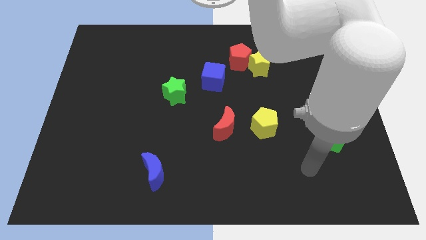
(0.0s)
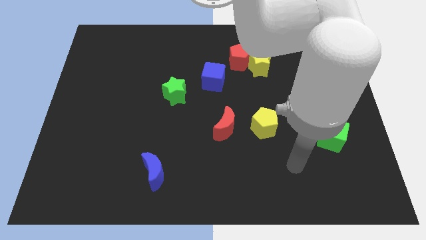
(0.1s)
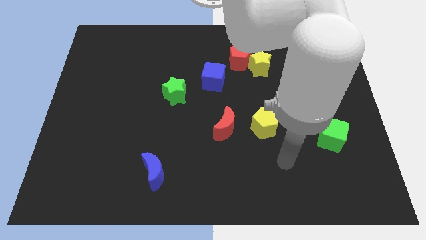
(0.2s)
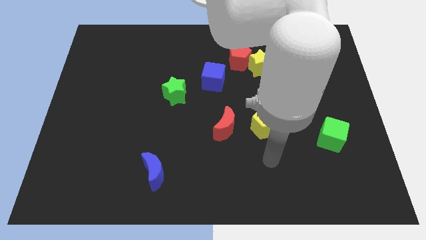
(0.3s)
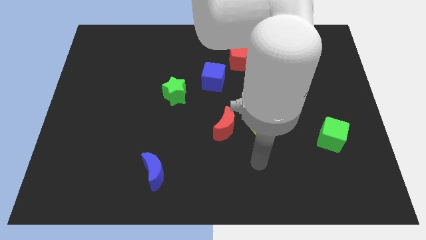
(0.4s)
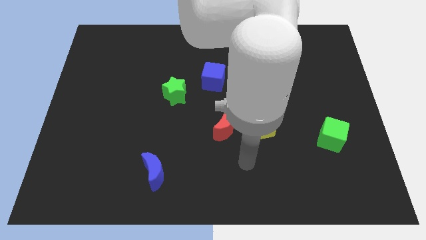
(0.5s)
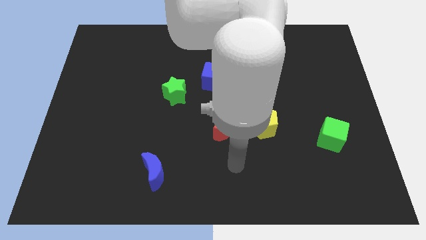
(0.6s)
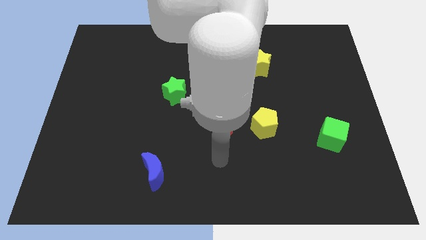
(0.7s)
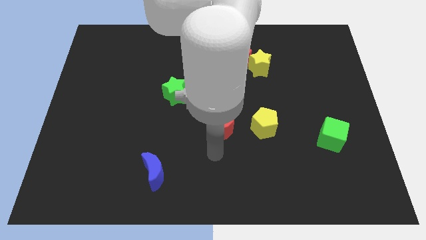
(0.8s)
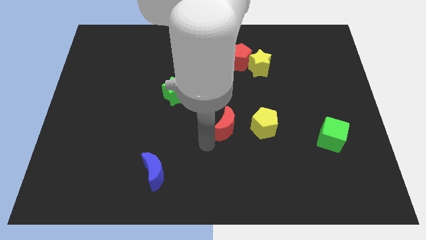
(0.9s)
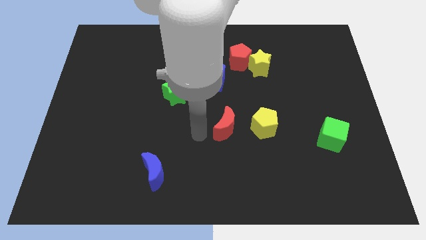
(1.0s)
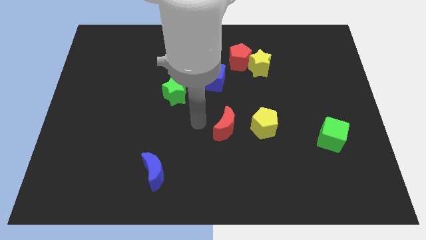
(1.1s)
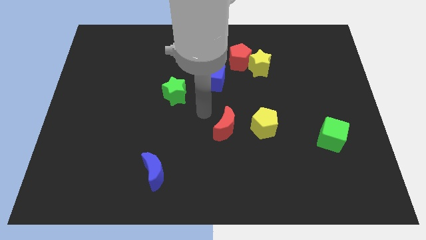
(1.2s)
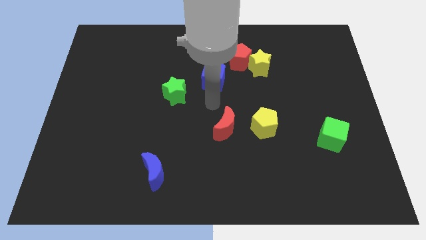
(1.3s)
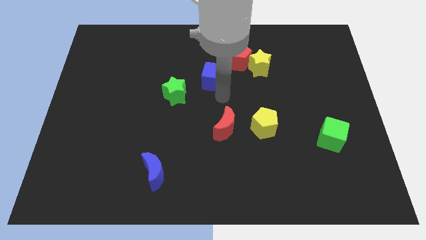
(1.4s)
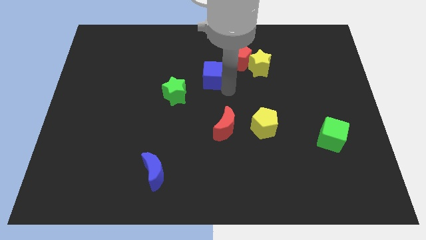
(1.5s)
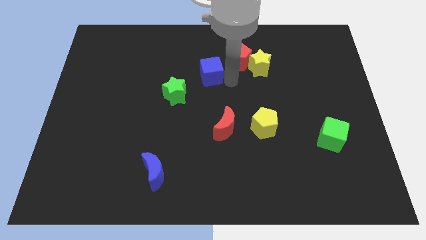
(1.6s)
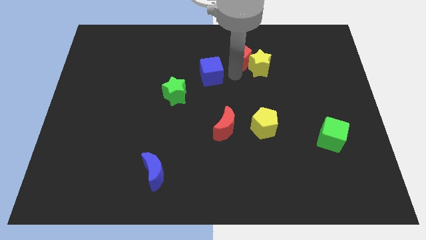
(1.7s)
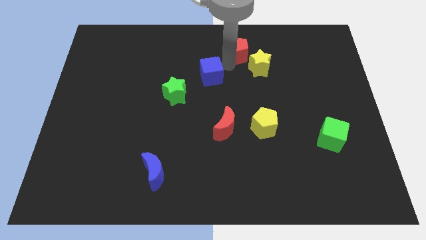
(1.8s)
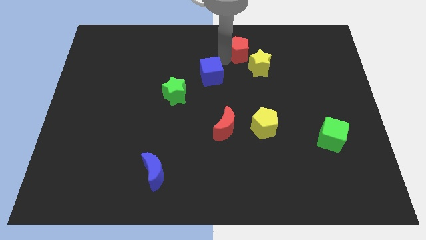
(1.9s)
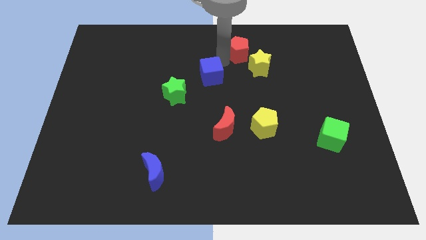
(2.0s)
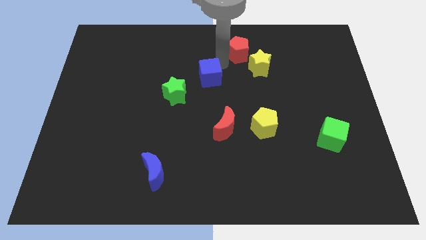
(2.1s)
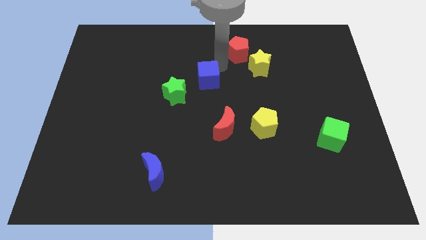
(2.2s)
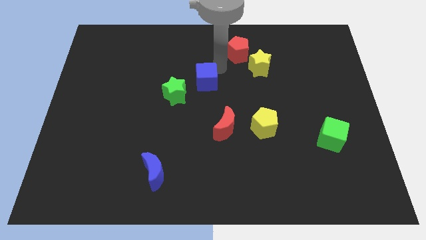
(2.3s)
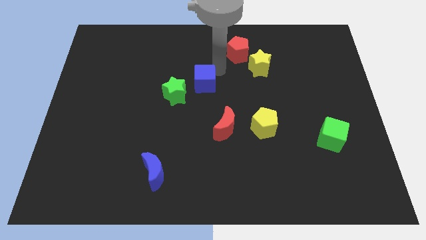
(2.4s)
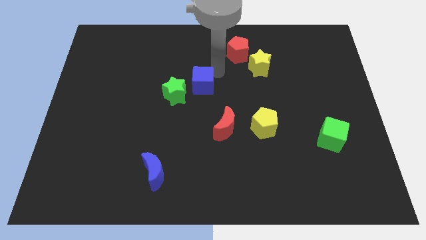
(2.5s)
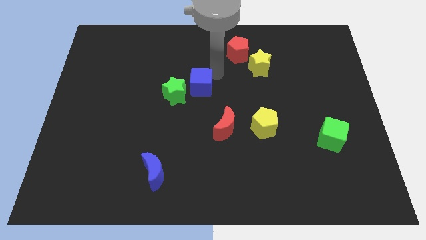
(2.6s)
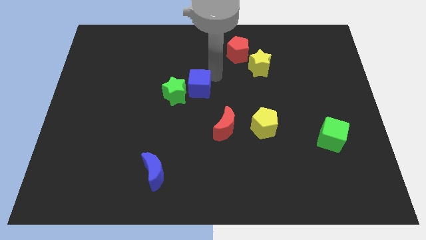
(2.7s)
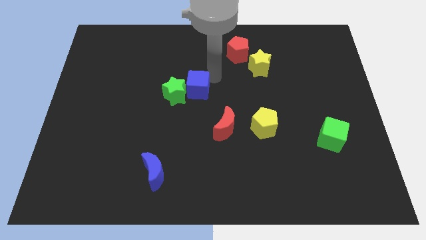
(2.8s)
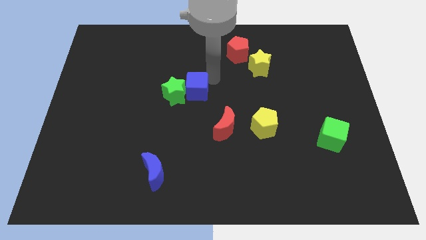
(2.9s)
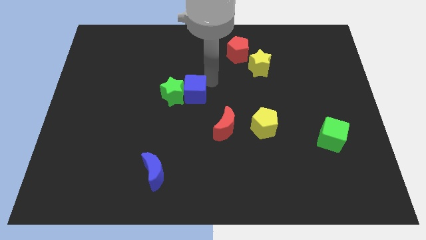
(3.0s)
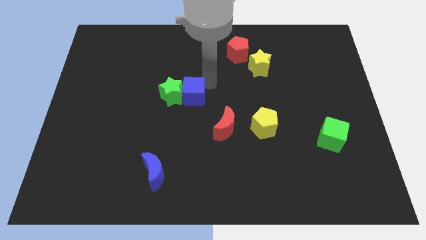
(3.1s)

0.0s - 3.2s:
move the blue cube down and to the left diagonally a bit

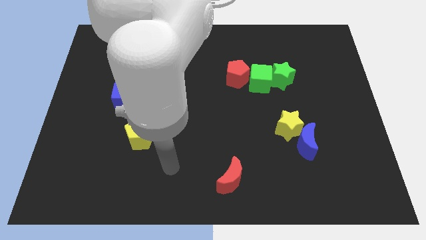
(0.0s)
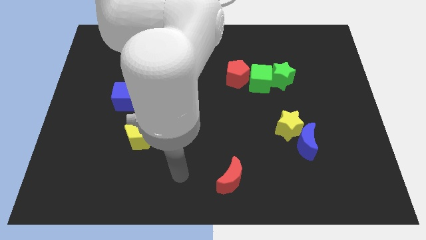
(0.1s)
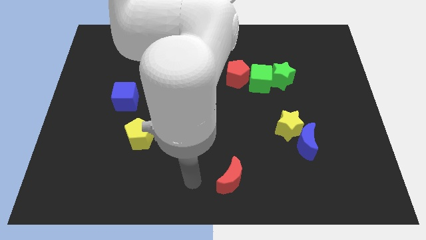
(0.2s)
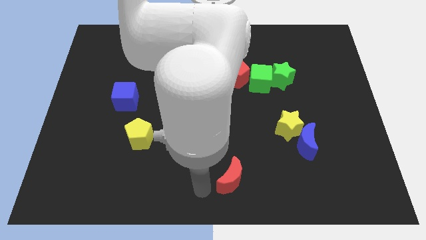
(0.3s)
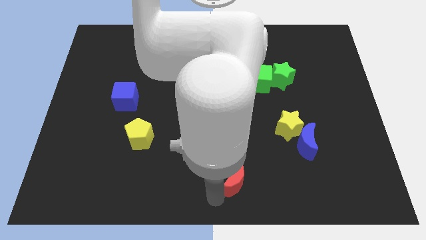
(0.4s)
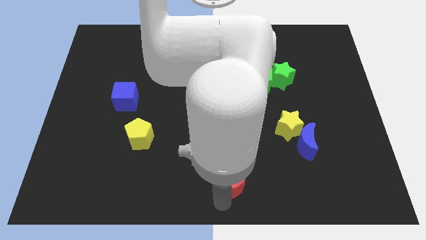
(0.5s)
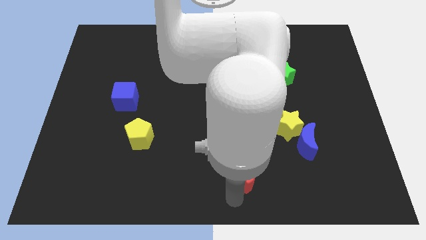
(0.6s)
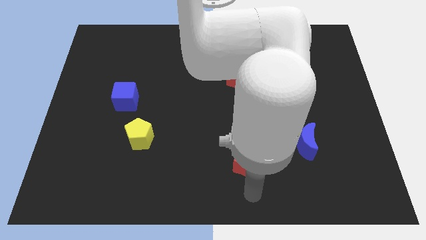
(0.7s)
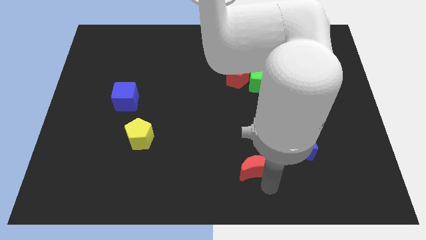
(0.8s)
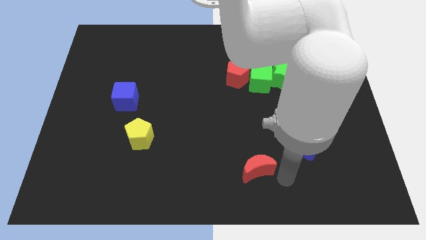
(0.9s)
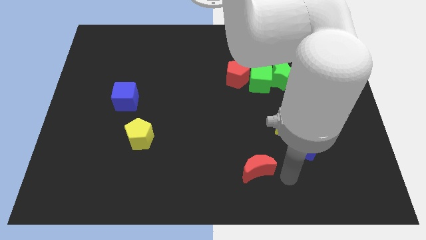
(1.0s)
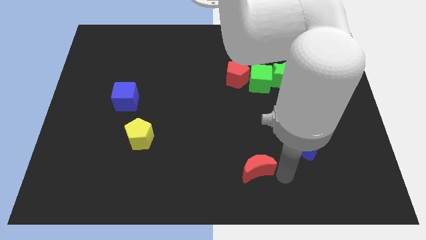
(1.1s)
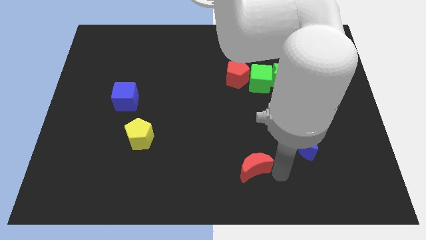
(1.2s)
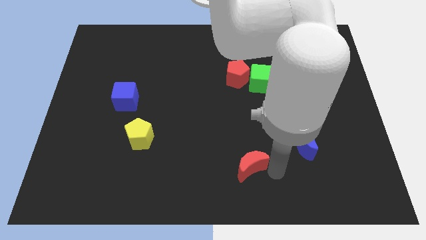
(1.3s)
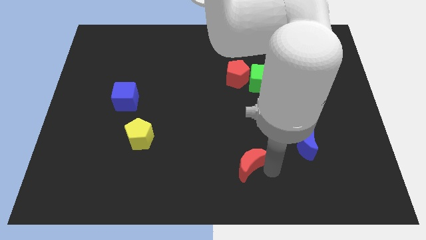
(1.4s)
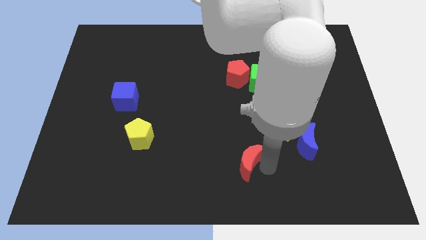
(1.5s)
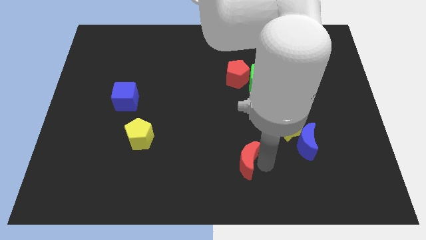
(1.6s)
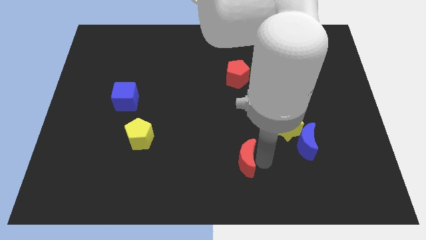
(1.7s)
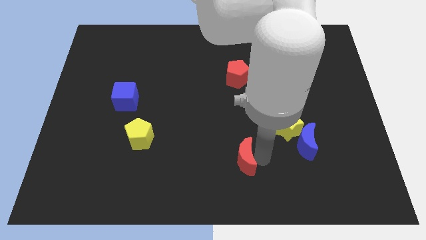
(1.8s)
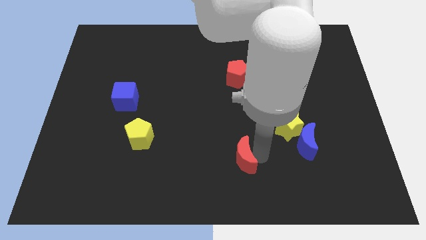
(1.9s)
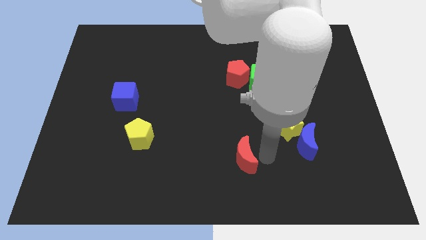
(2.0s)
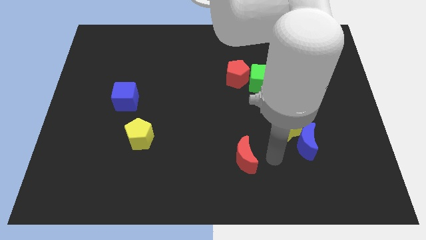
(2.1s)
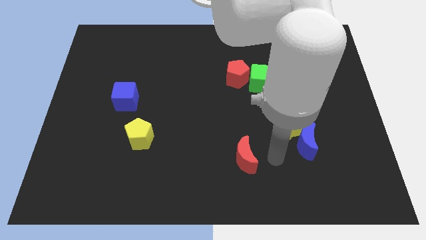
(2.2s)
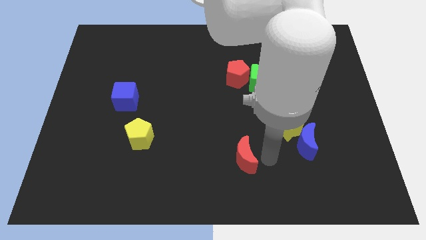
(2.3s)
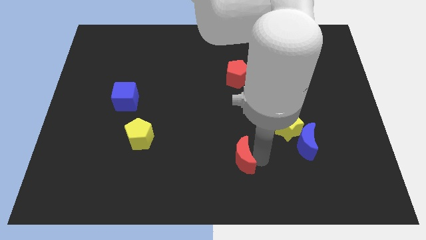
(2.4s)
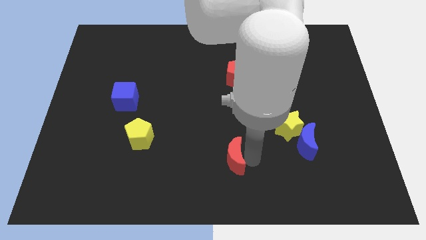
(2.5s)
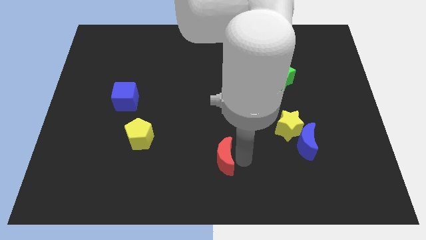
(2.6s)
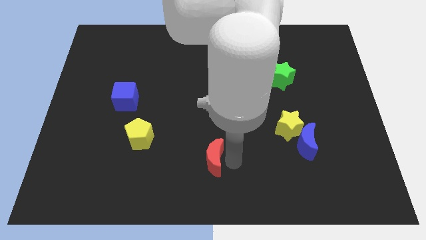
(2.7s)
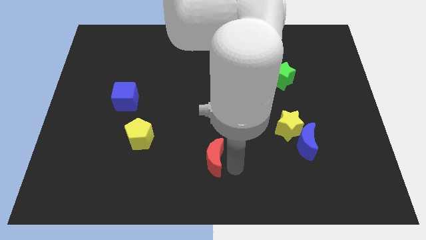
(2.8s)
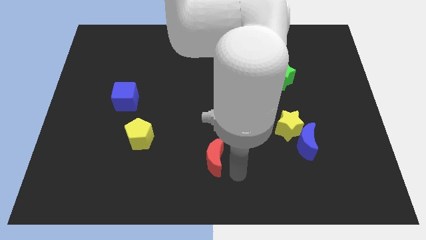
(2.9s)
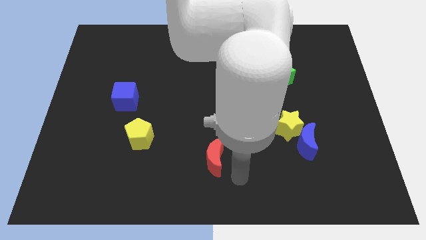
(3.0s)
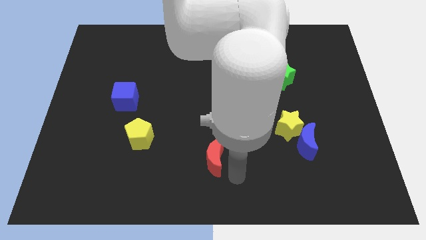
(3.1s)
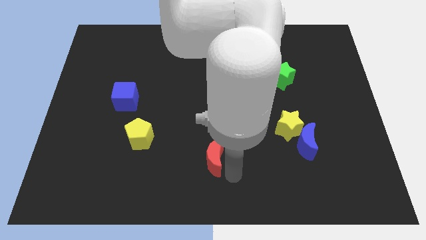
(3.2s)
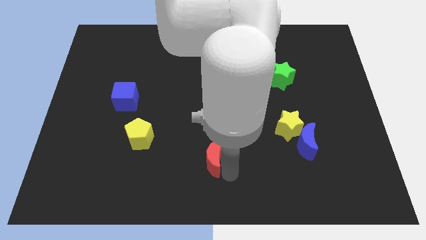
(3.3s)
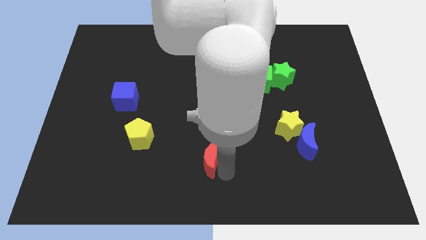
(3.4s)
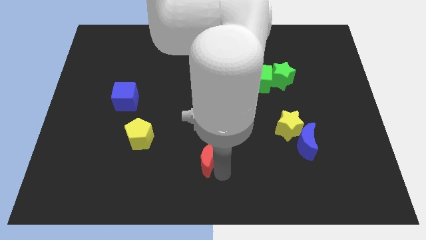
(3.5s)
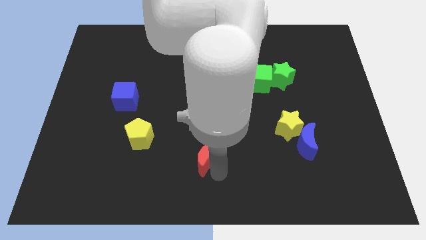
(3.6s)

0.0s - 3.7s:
slightly move the red moon diagonally upwards and left

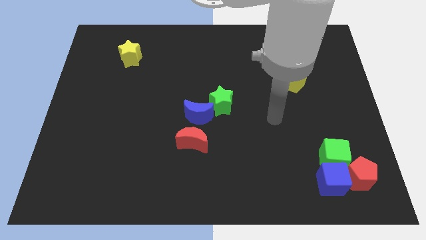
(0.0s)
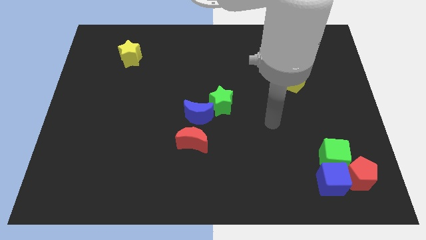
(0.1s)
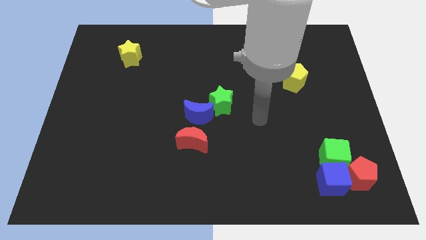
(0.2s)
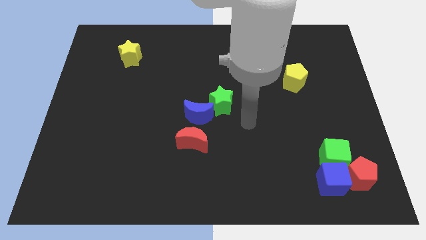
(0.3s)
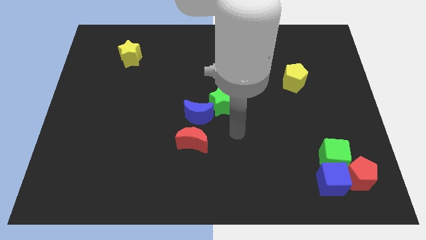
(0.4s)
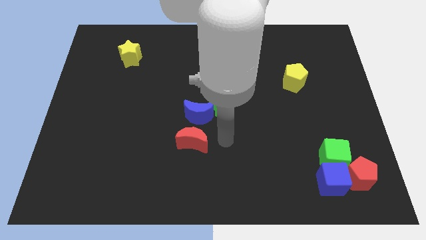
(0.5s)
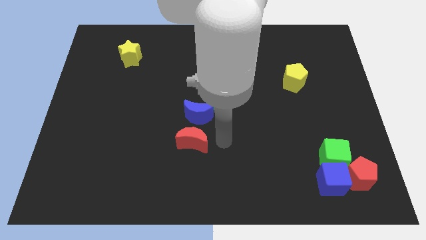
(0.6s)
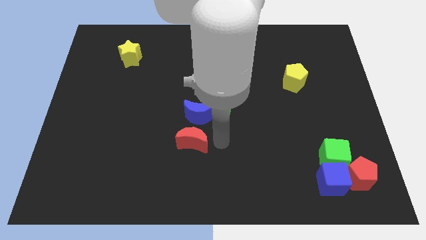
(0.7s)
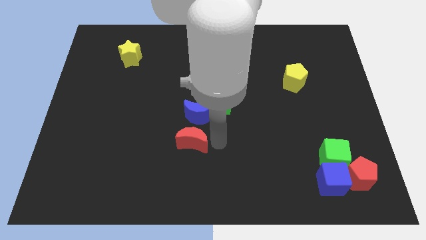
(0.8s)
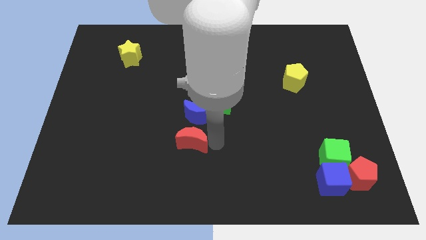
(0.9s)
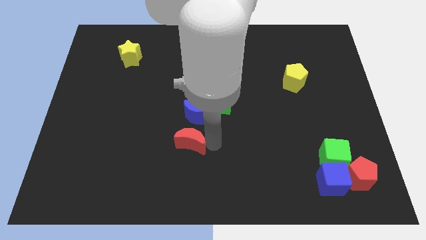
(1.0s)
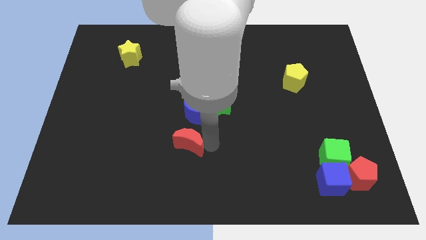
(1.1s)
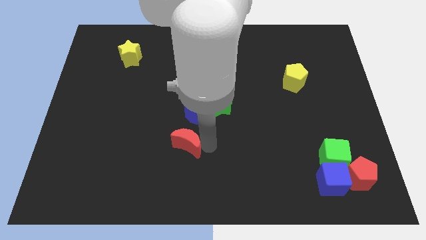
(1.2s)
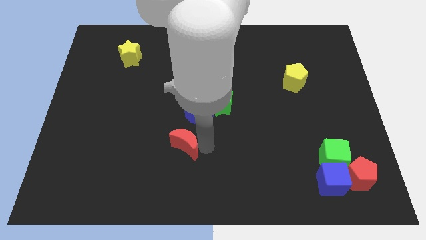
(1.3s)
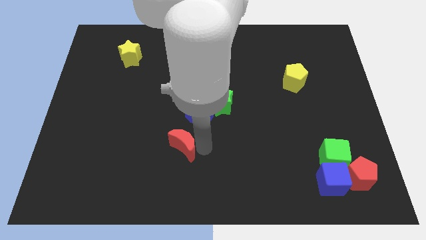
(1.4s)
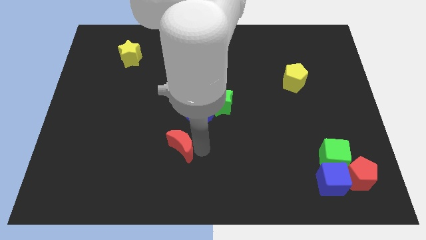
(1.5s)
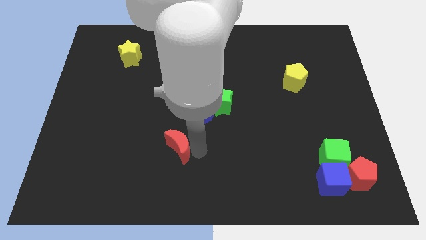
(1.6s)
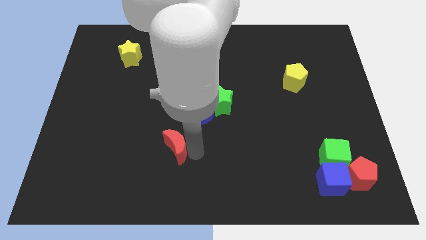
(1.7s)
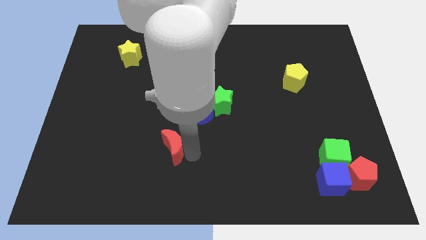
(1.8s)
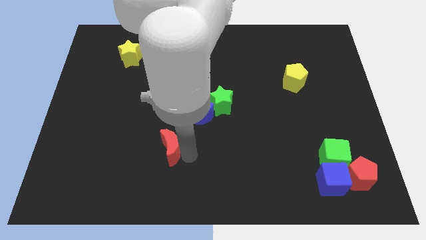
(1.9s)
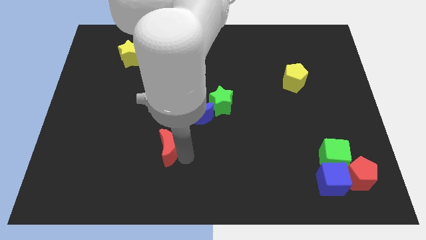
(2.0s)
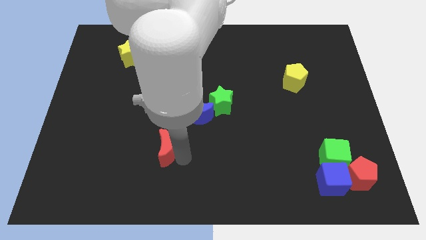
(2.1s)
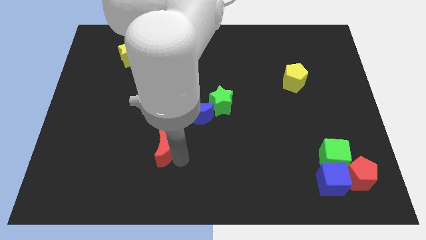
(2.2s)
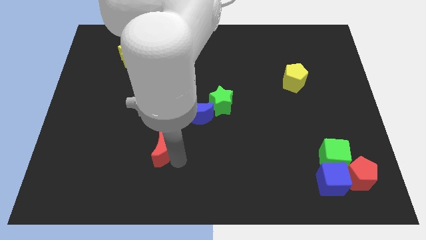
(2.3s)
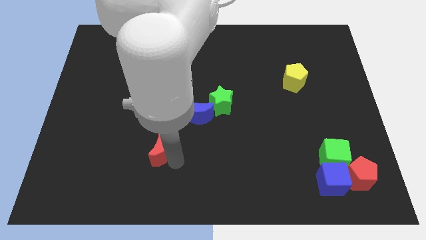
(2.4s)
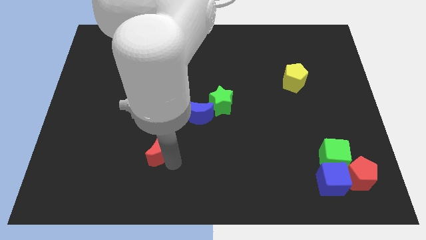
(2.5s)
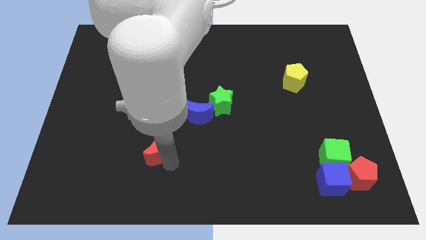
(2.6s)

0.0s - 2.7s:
slide the red moon a little bit to the left
